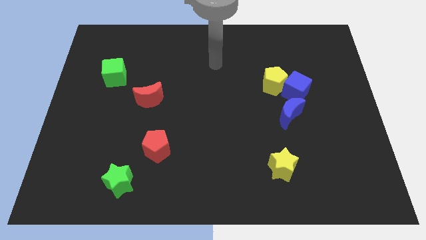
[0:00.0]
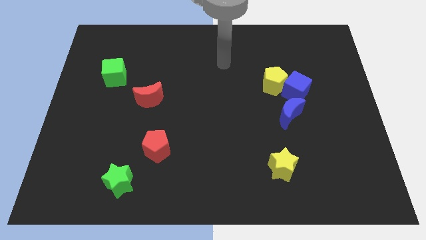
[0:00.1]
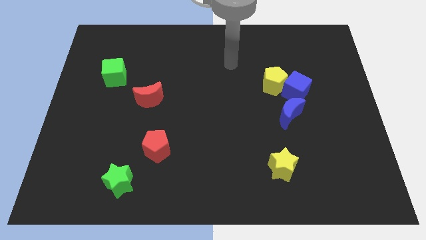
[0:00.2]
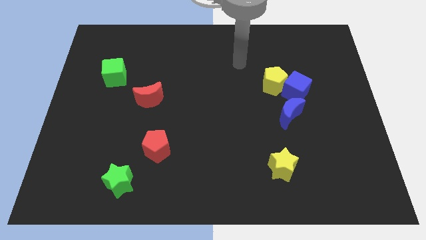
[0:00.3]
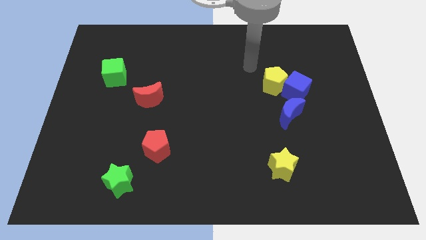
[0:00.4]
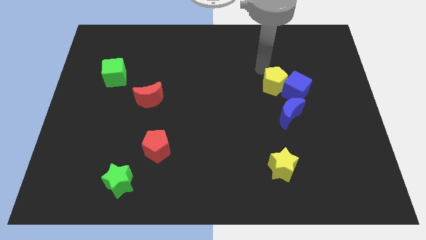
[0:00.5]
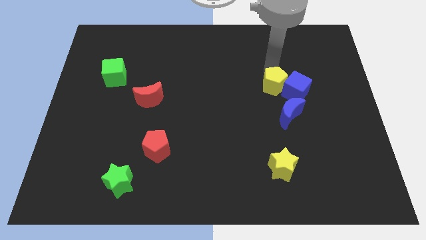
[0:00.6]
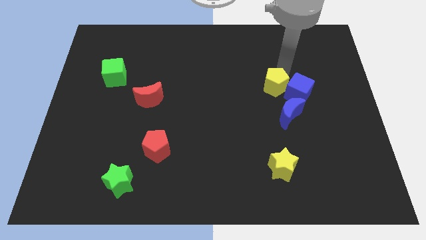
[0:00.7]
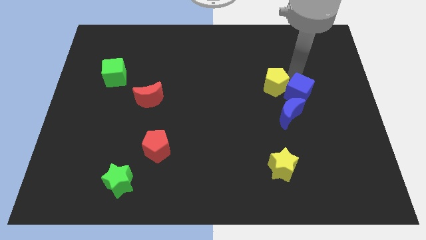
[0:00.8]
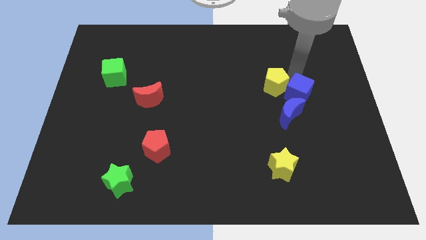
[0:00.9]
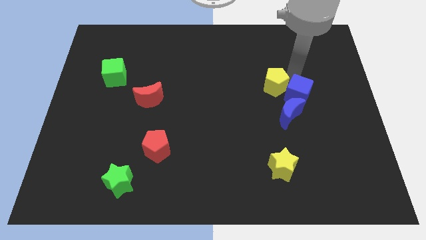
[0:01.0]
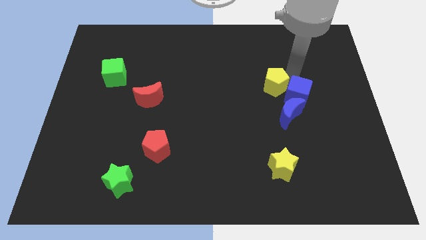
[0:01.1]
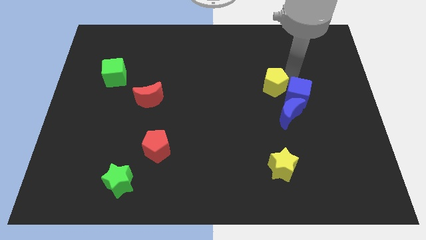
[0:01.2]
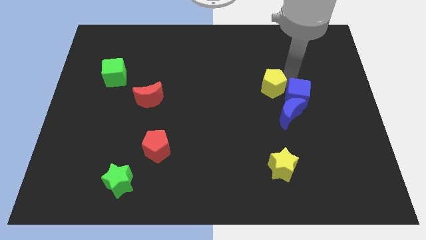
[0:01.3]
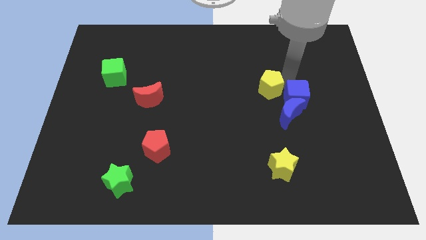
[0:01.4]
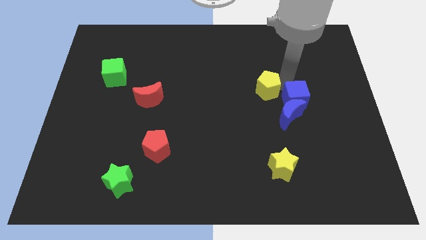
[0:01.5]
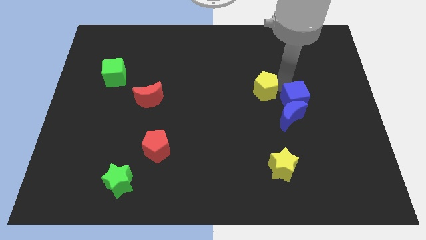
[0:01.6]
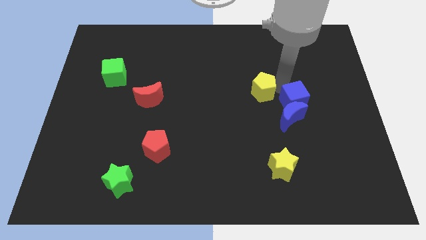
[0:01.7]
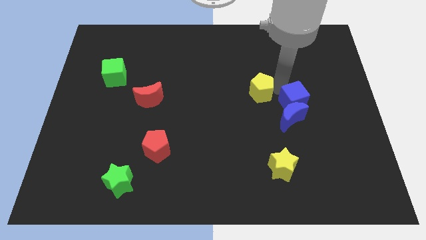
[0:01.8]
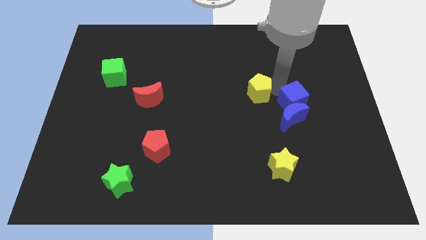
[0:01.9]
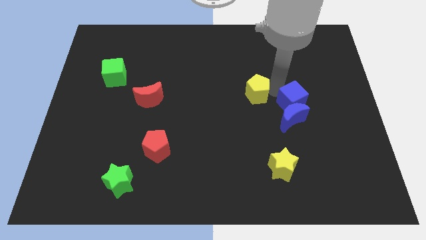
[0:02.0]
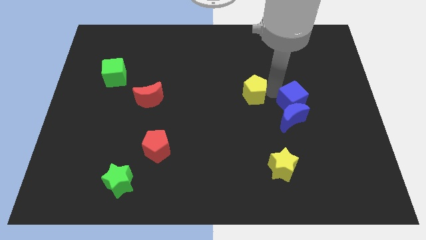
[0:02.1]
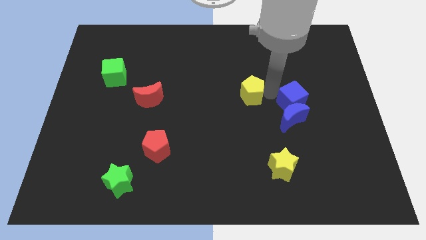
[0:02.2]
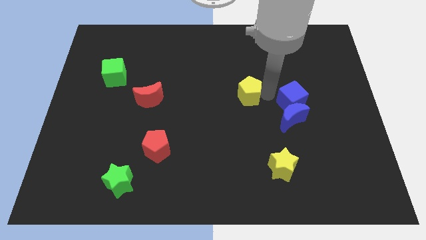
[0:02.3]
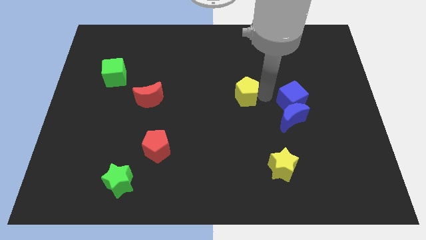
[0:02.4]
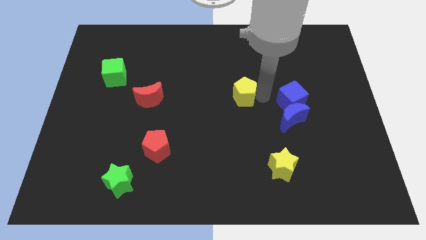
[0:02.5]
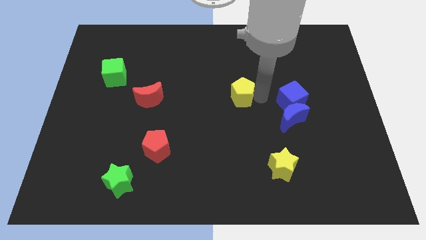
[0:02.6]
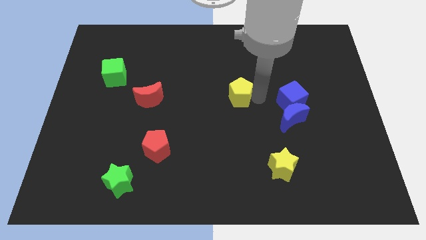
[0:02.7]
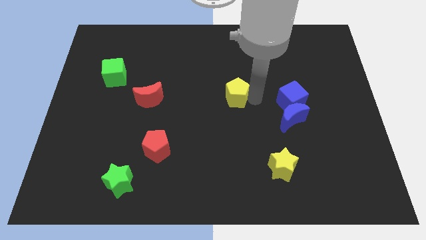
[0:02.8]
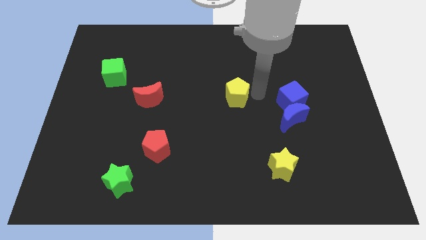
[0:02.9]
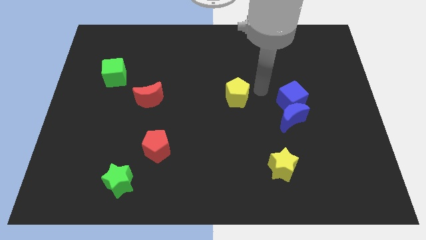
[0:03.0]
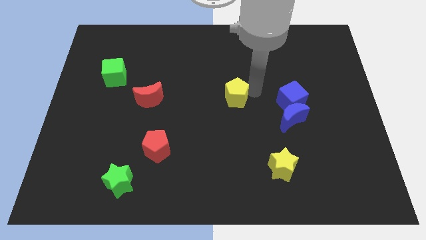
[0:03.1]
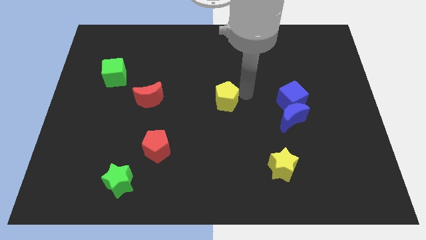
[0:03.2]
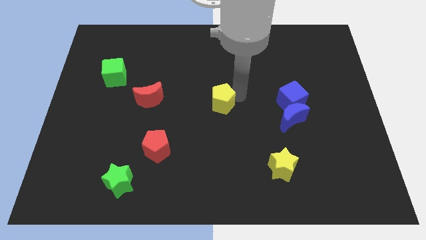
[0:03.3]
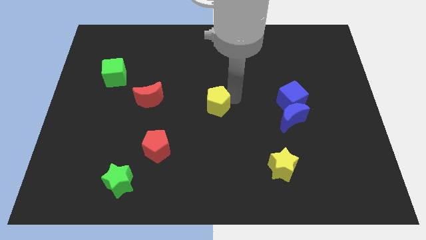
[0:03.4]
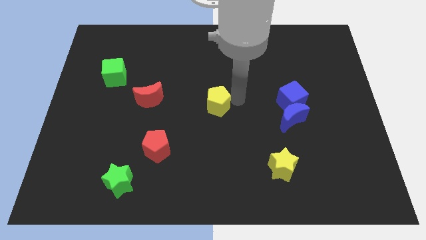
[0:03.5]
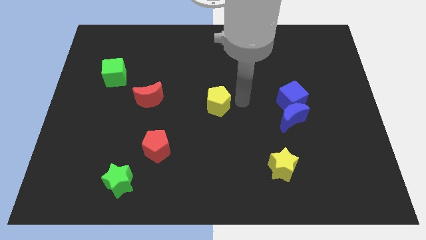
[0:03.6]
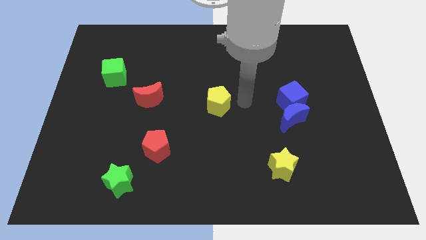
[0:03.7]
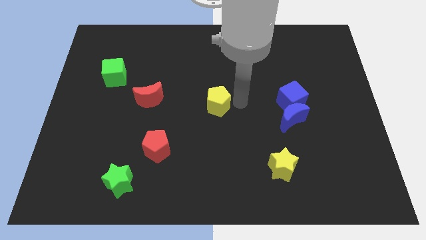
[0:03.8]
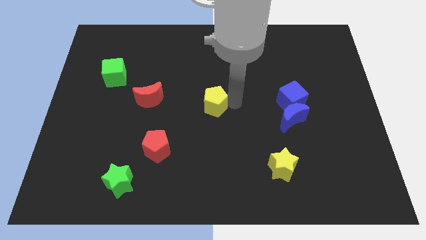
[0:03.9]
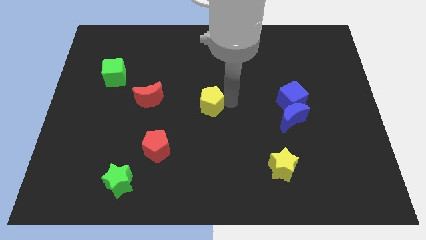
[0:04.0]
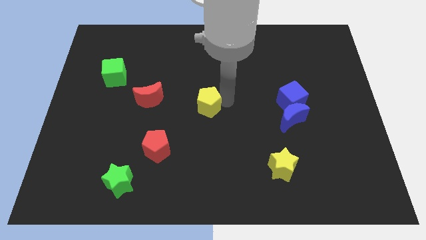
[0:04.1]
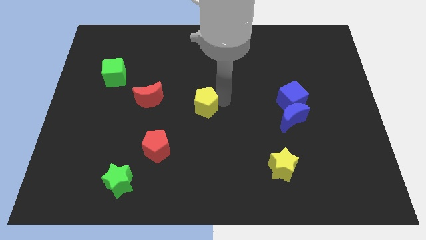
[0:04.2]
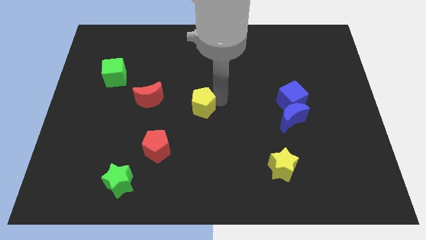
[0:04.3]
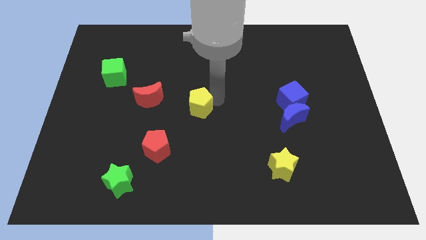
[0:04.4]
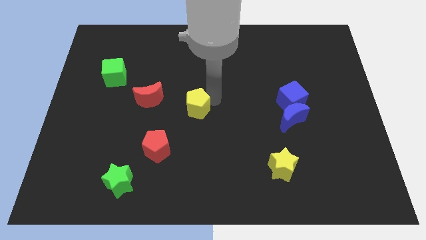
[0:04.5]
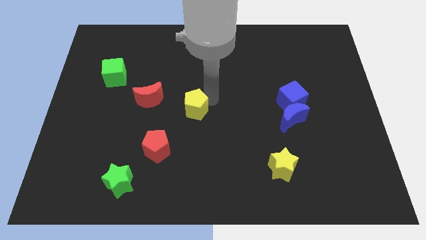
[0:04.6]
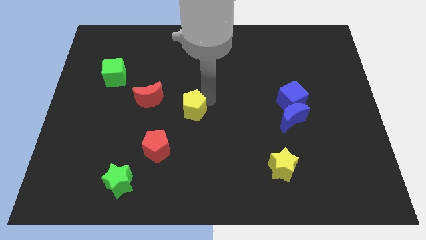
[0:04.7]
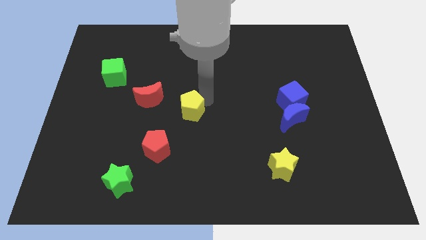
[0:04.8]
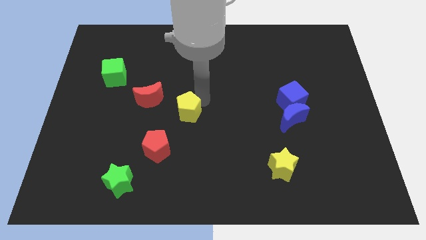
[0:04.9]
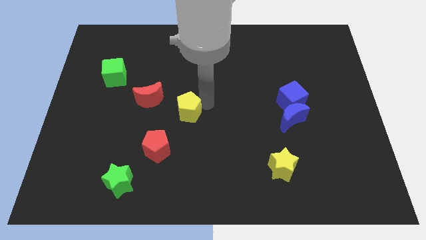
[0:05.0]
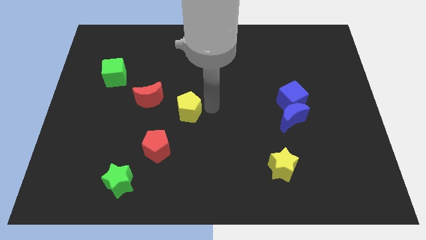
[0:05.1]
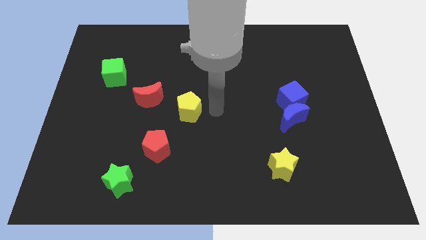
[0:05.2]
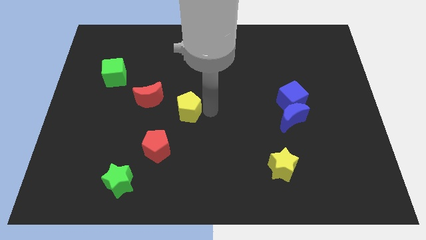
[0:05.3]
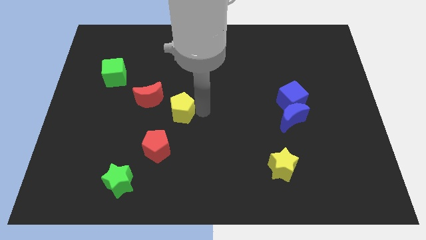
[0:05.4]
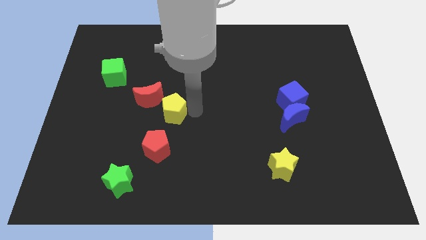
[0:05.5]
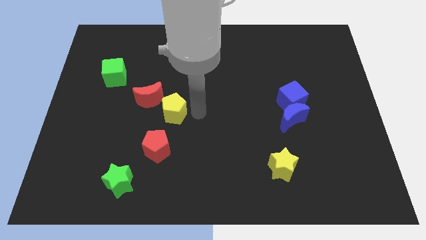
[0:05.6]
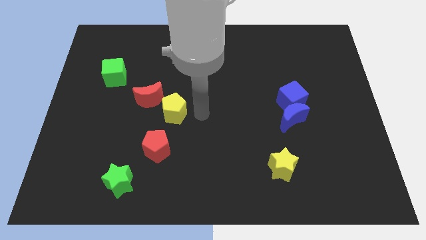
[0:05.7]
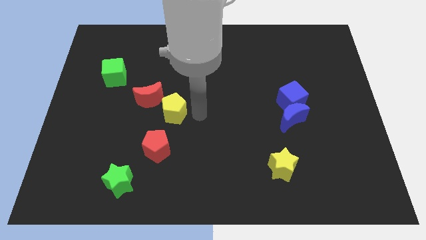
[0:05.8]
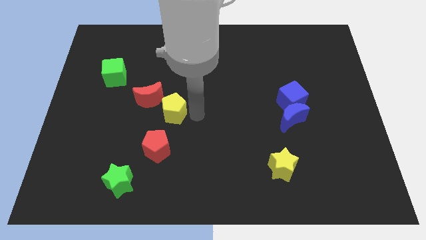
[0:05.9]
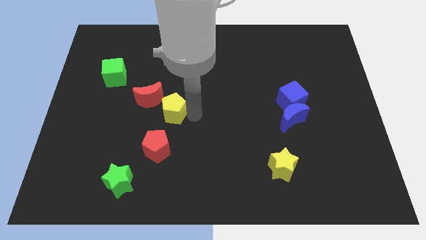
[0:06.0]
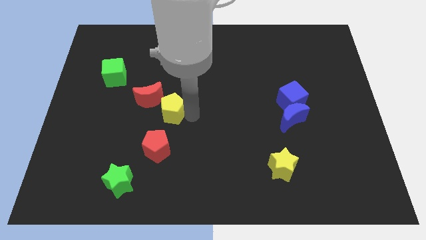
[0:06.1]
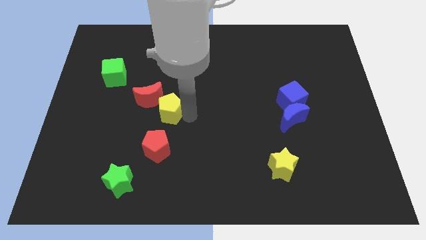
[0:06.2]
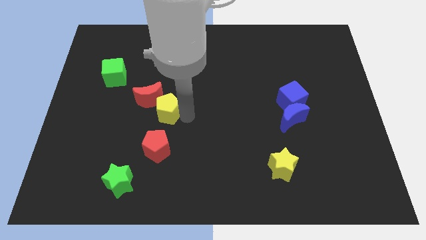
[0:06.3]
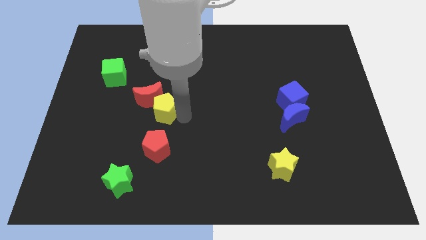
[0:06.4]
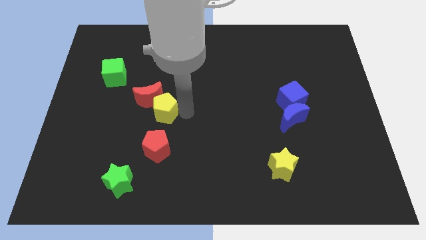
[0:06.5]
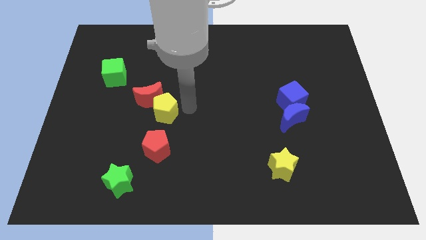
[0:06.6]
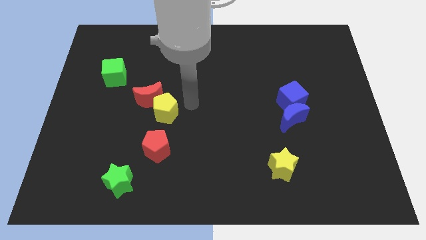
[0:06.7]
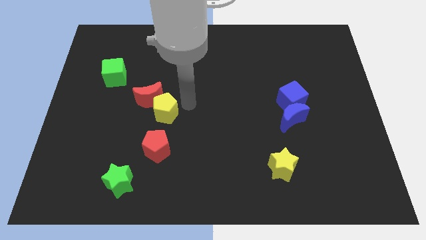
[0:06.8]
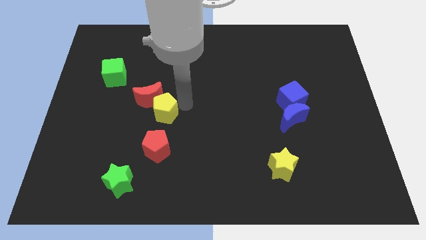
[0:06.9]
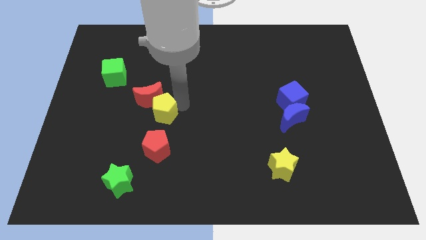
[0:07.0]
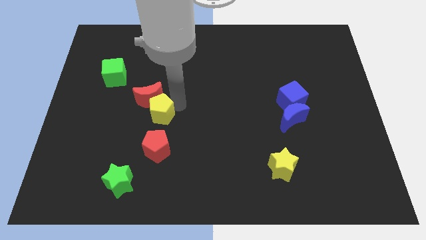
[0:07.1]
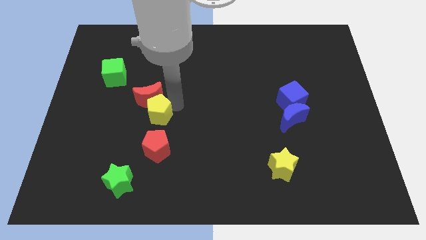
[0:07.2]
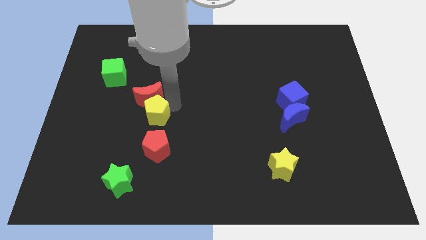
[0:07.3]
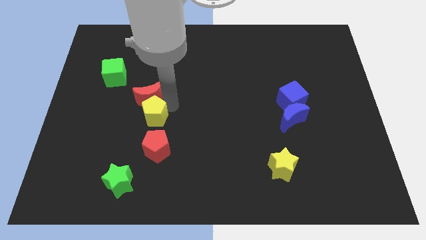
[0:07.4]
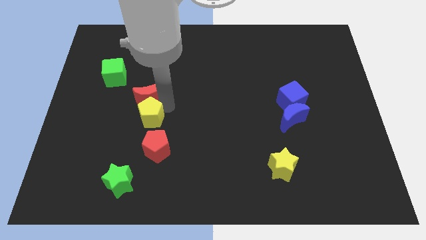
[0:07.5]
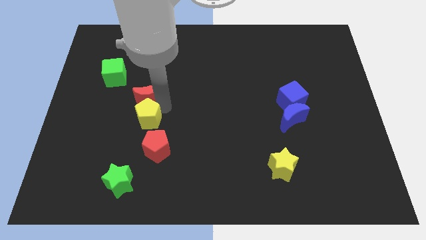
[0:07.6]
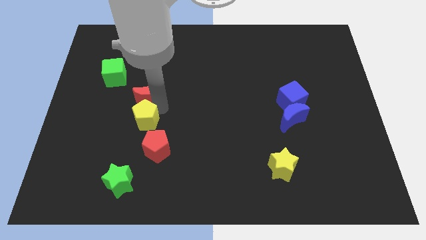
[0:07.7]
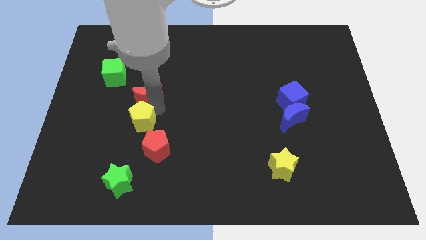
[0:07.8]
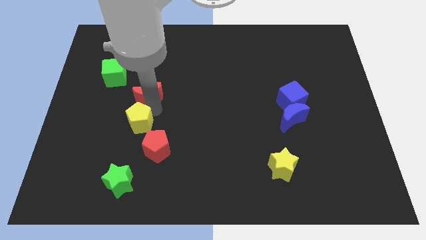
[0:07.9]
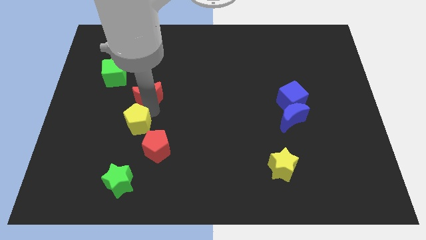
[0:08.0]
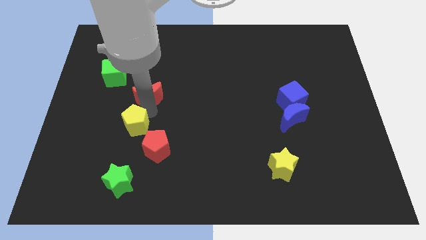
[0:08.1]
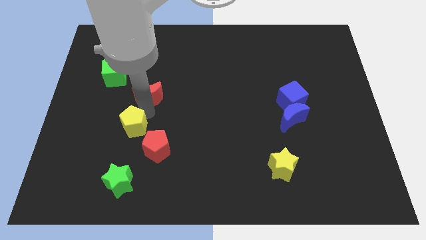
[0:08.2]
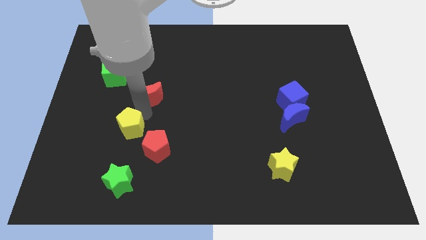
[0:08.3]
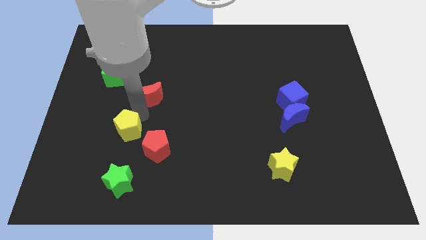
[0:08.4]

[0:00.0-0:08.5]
move the yellow pentagon to the left of the red pentagon
